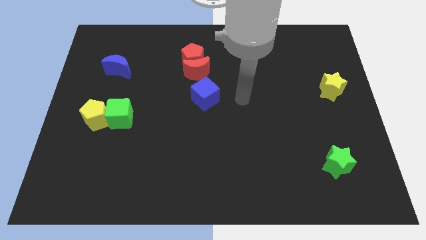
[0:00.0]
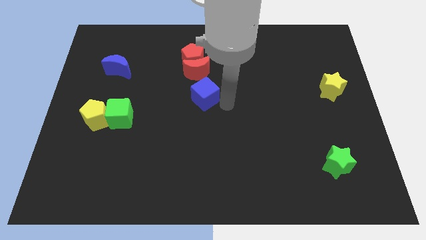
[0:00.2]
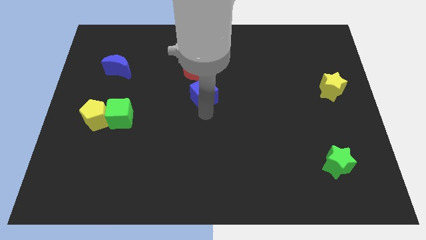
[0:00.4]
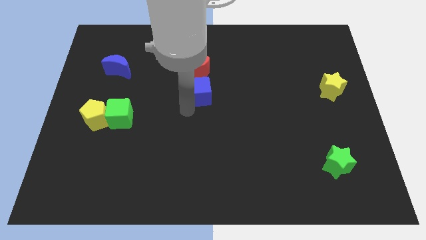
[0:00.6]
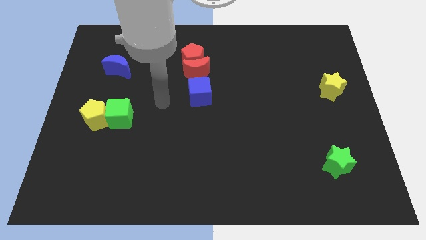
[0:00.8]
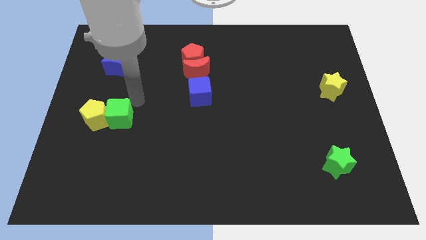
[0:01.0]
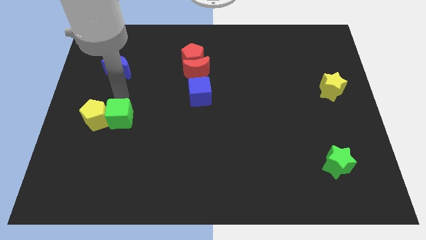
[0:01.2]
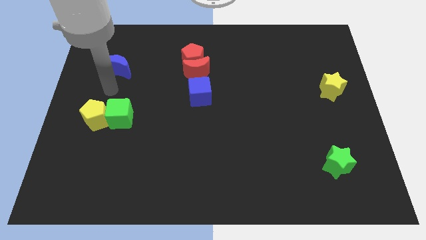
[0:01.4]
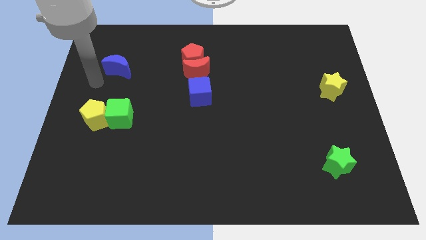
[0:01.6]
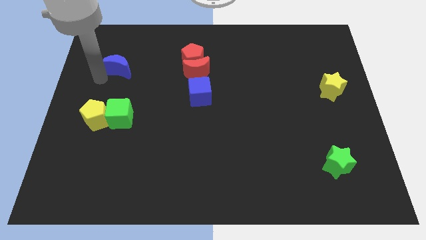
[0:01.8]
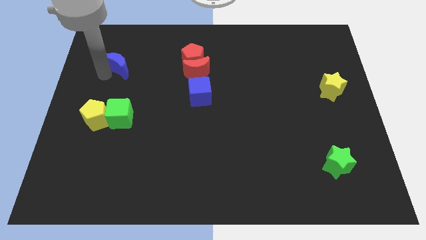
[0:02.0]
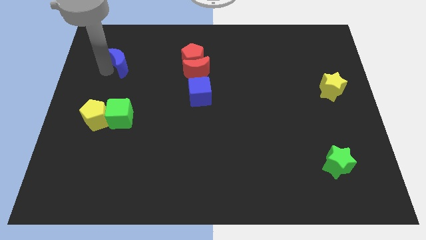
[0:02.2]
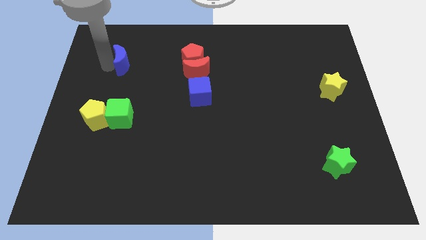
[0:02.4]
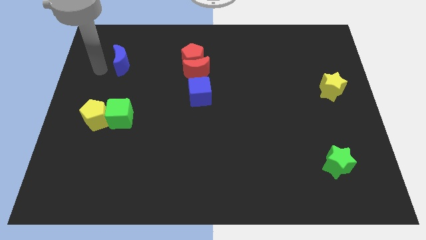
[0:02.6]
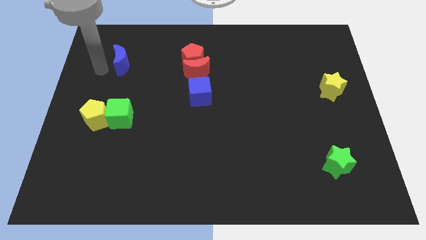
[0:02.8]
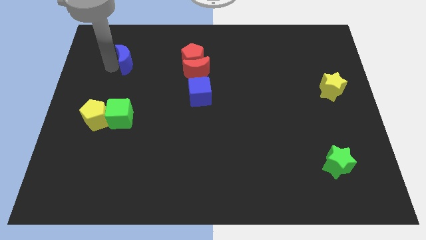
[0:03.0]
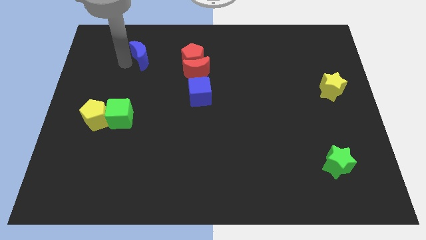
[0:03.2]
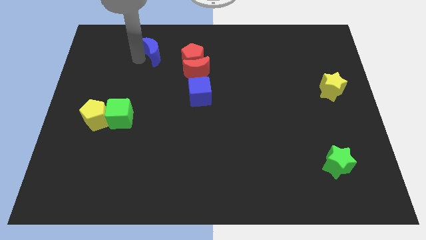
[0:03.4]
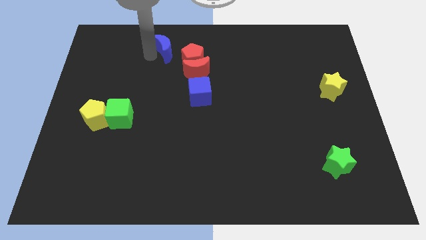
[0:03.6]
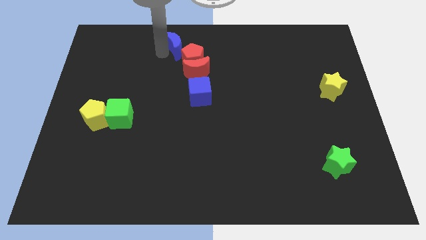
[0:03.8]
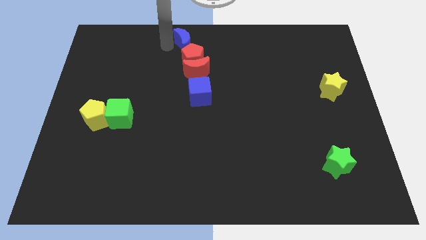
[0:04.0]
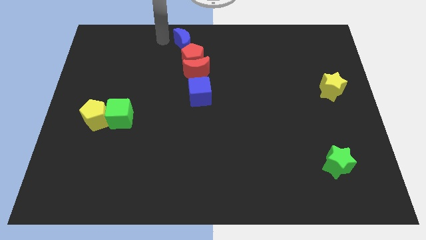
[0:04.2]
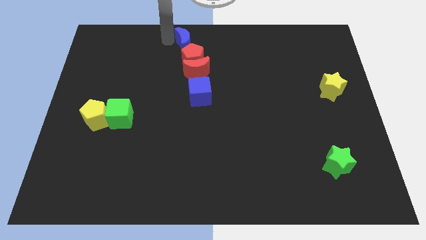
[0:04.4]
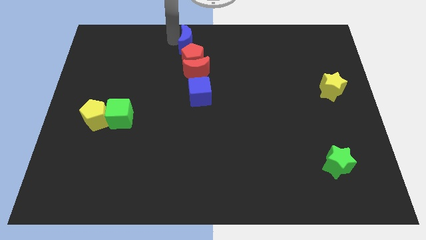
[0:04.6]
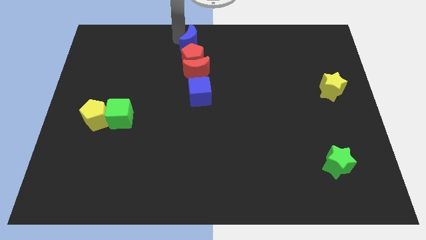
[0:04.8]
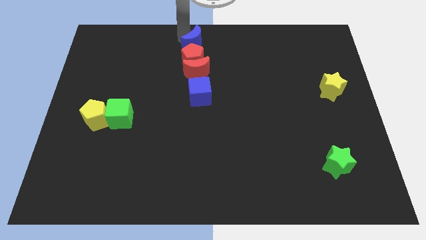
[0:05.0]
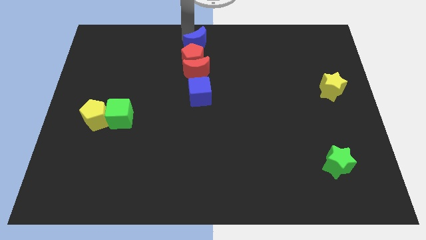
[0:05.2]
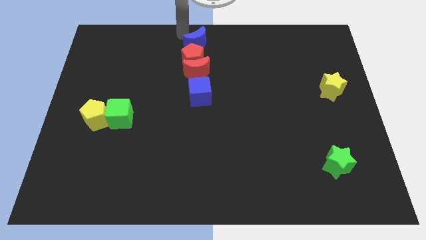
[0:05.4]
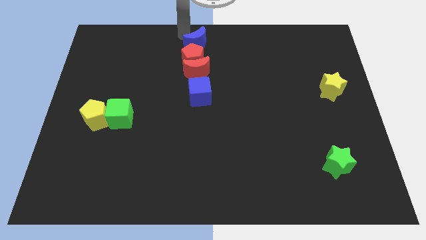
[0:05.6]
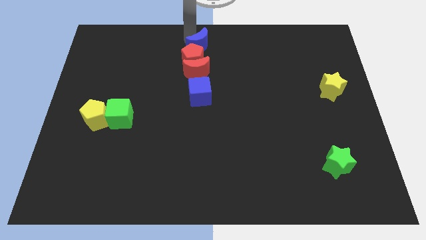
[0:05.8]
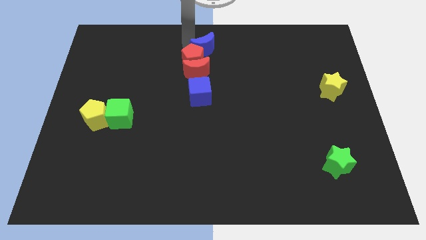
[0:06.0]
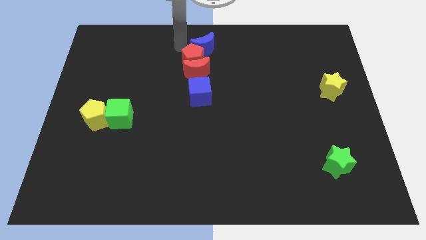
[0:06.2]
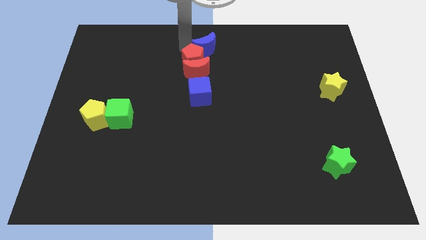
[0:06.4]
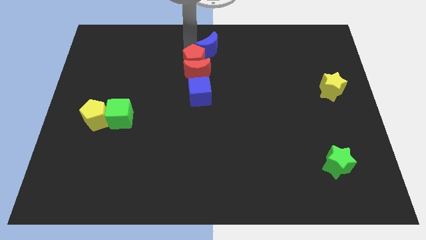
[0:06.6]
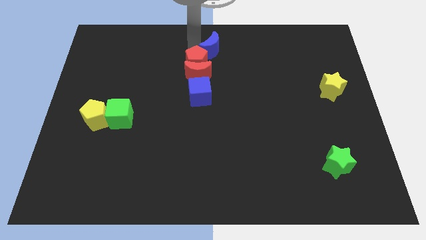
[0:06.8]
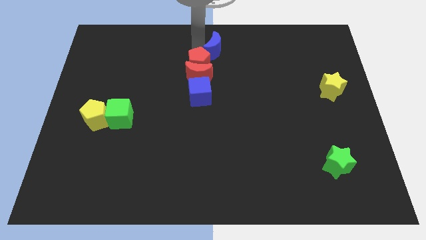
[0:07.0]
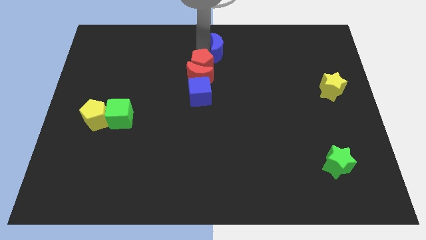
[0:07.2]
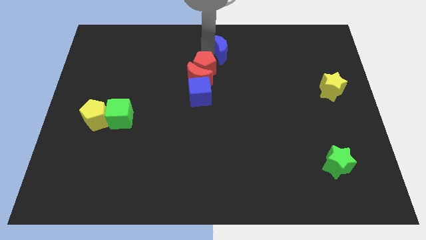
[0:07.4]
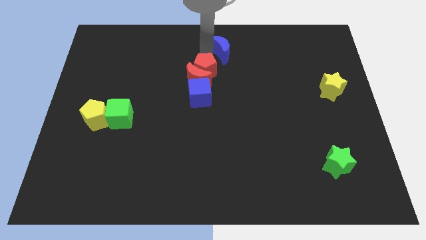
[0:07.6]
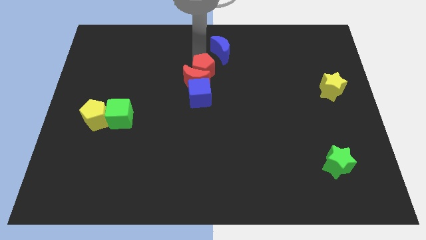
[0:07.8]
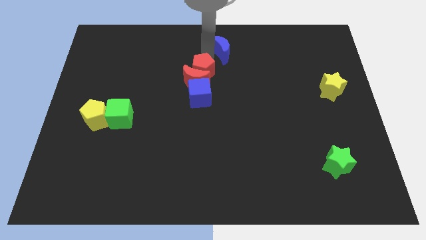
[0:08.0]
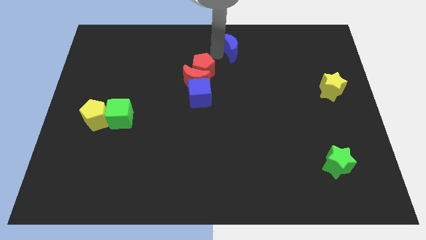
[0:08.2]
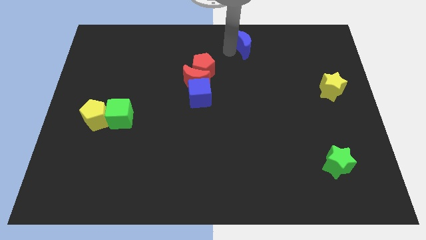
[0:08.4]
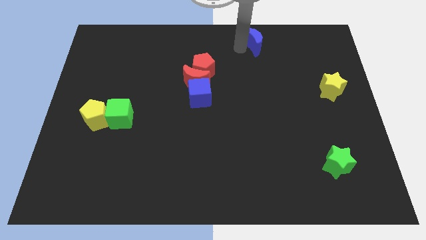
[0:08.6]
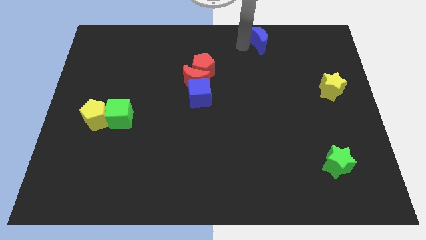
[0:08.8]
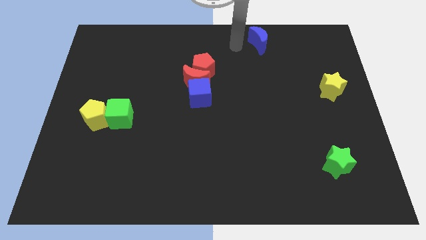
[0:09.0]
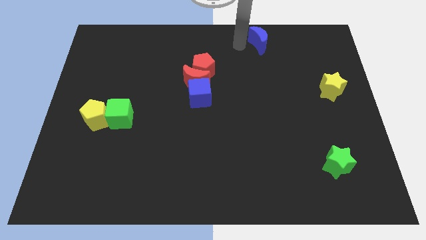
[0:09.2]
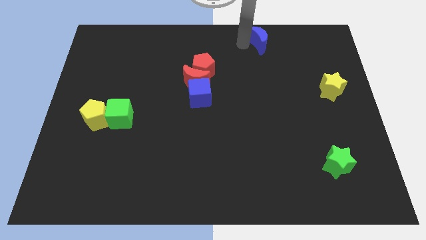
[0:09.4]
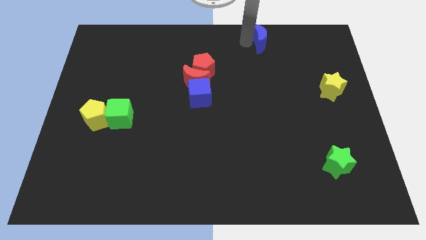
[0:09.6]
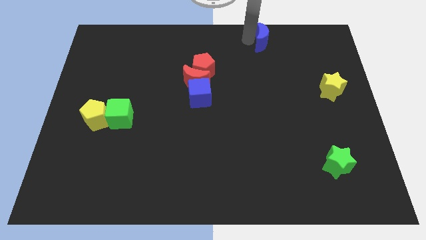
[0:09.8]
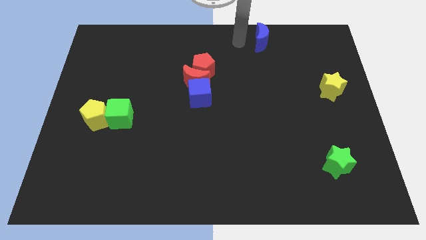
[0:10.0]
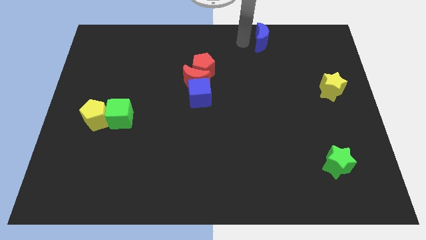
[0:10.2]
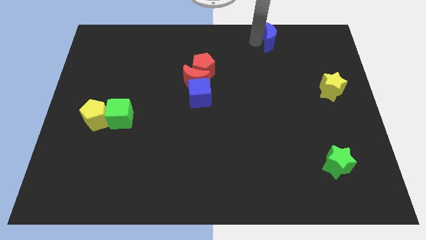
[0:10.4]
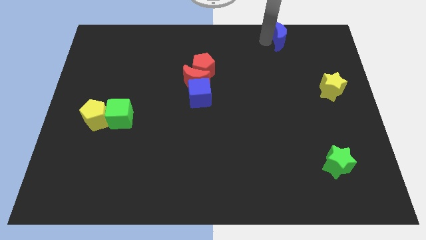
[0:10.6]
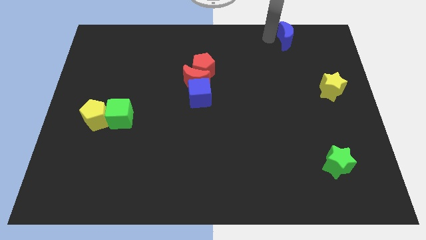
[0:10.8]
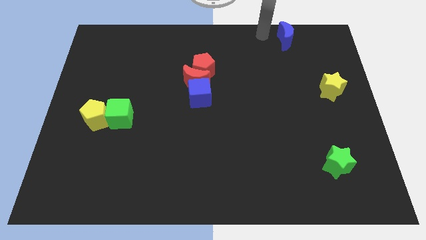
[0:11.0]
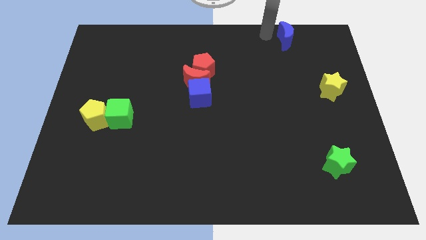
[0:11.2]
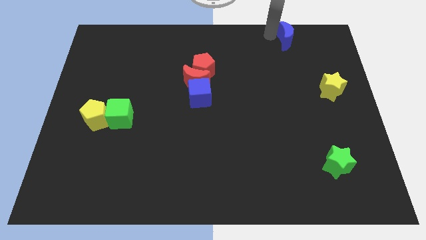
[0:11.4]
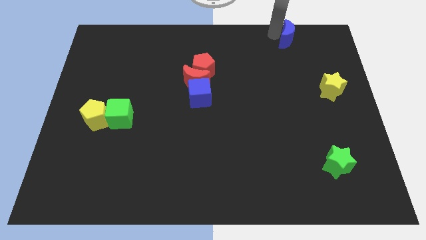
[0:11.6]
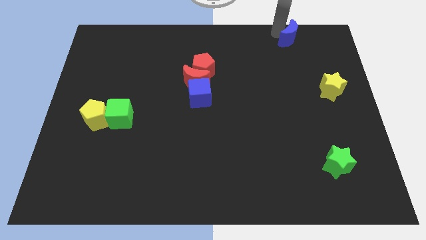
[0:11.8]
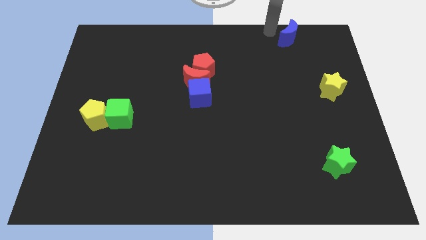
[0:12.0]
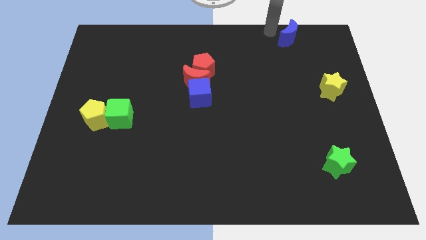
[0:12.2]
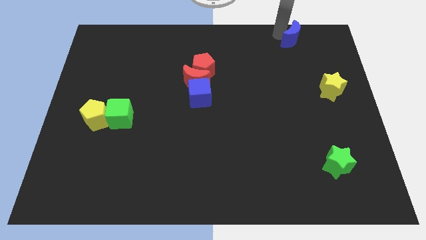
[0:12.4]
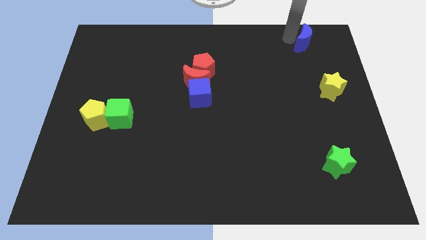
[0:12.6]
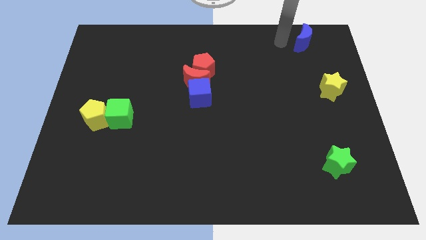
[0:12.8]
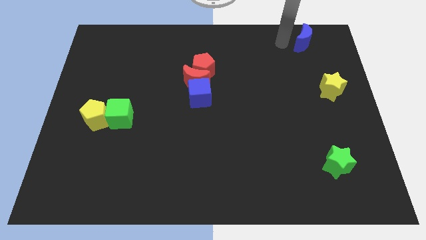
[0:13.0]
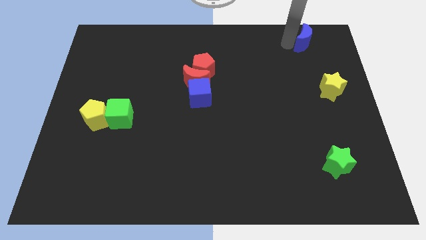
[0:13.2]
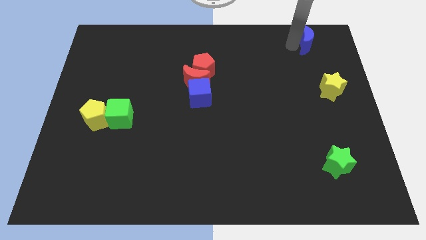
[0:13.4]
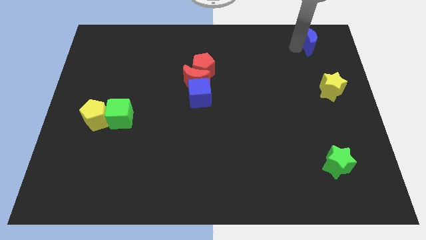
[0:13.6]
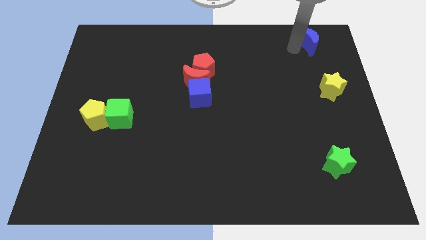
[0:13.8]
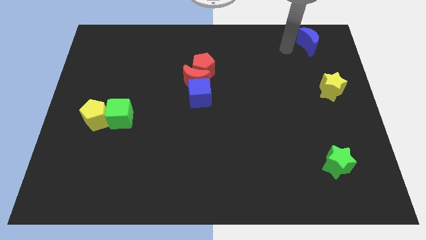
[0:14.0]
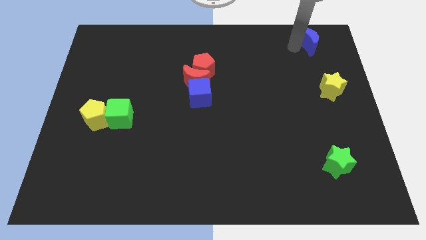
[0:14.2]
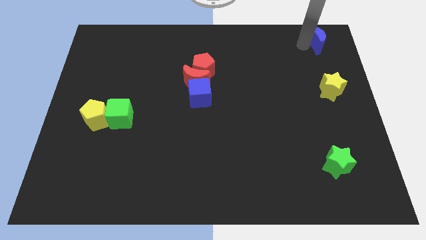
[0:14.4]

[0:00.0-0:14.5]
move the blue moon to the top right of the board
